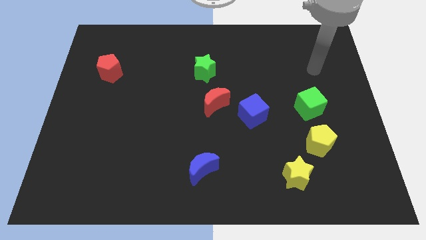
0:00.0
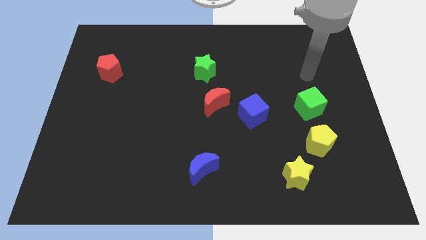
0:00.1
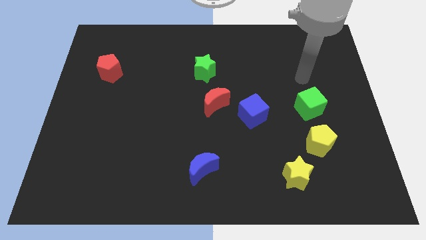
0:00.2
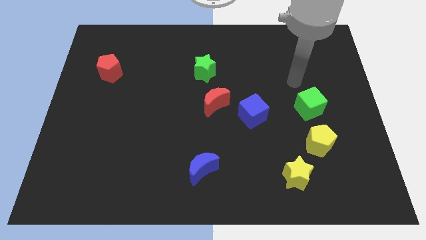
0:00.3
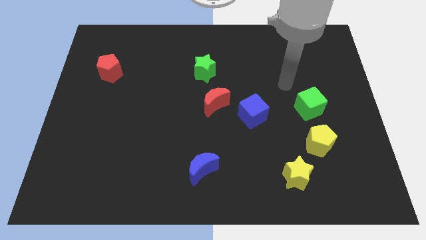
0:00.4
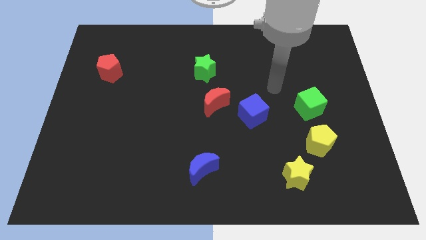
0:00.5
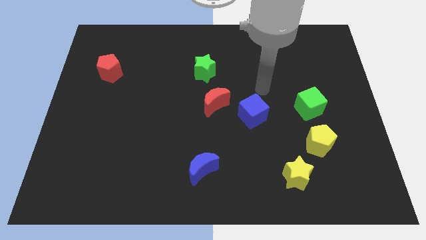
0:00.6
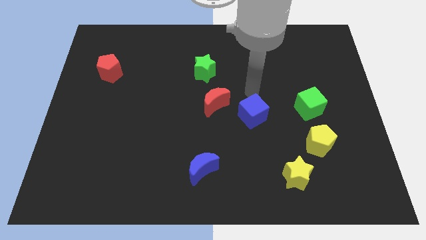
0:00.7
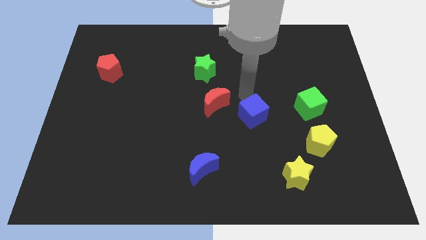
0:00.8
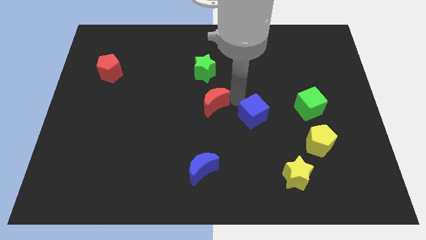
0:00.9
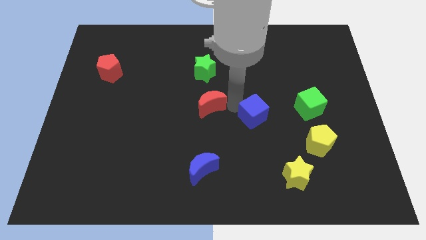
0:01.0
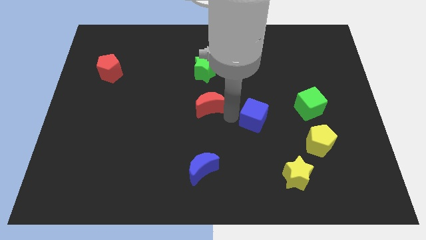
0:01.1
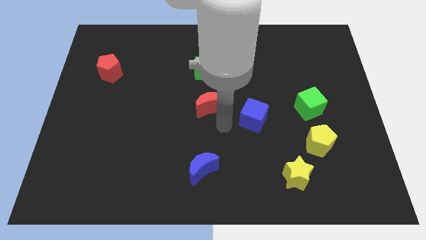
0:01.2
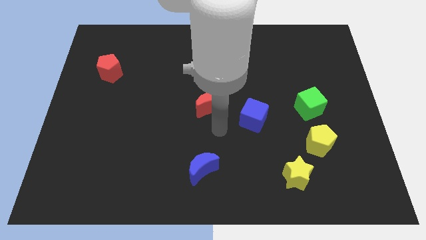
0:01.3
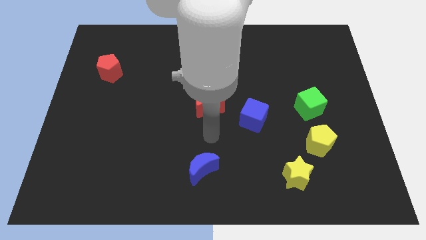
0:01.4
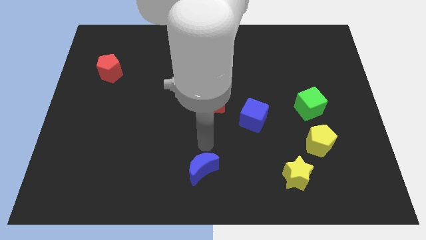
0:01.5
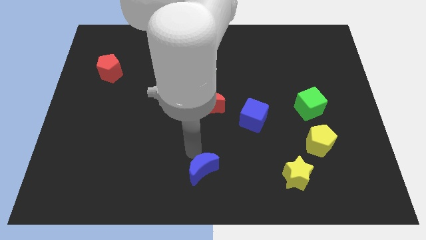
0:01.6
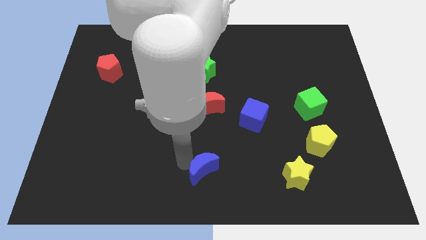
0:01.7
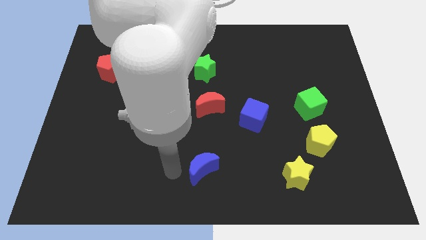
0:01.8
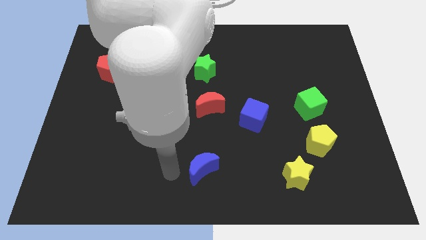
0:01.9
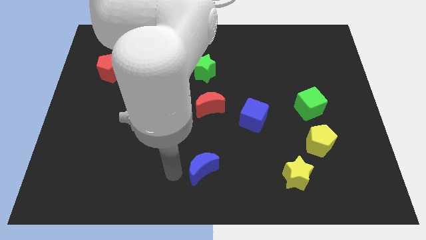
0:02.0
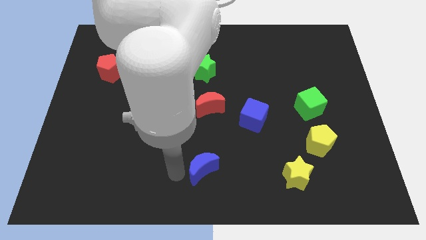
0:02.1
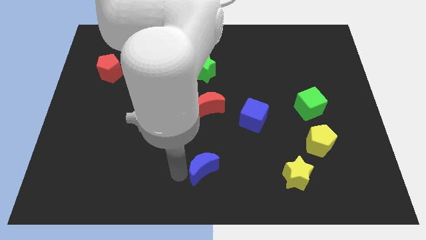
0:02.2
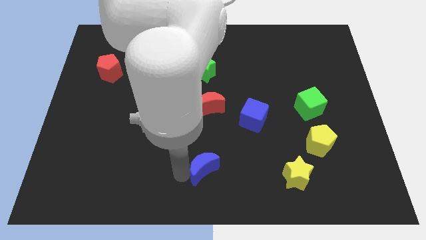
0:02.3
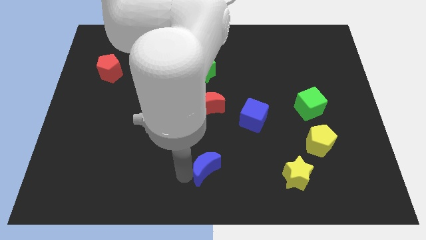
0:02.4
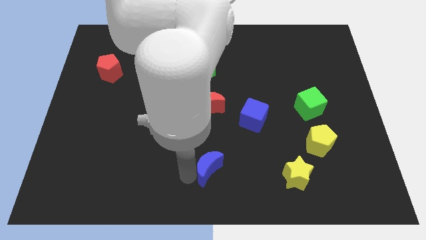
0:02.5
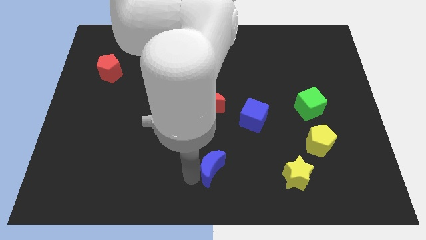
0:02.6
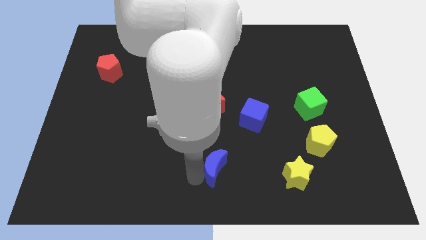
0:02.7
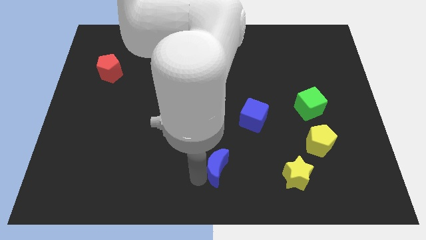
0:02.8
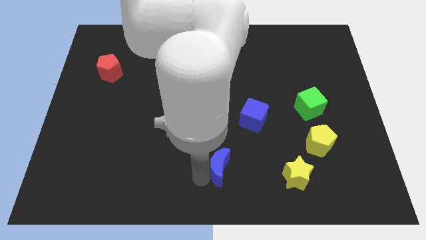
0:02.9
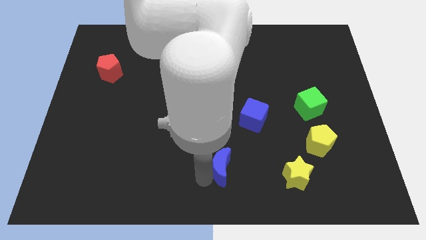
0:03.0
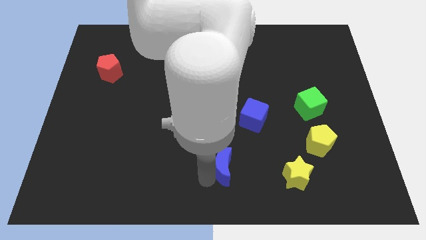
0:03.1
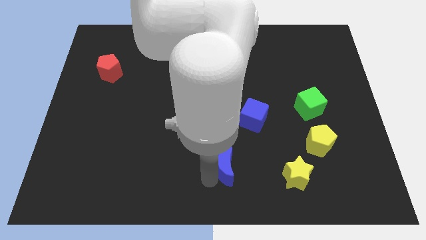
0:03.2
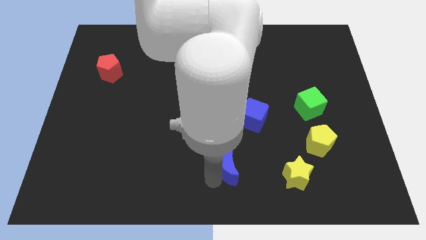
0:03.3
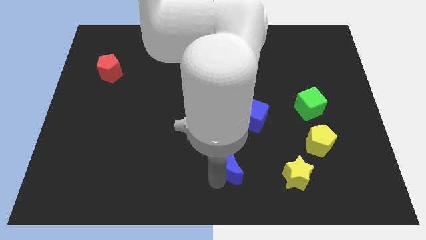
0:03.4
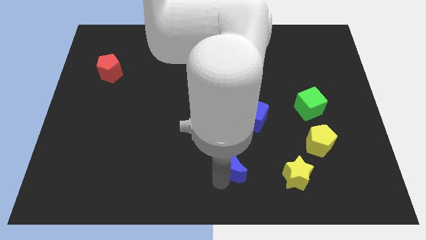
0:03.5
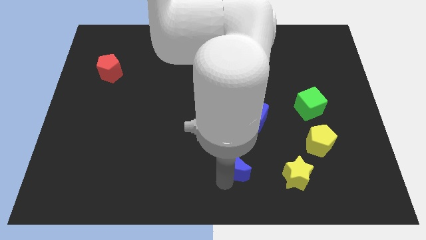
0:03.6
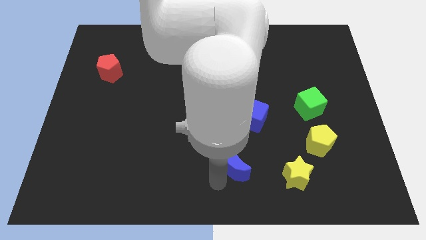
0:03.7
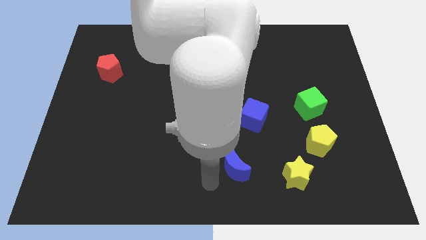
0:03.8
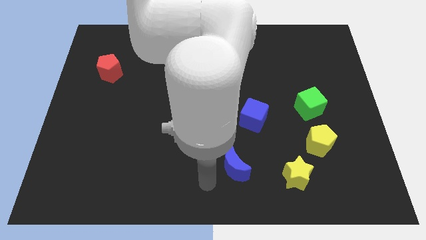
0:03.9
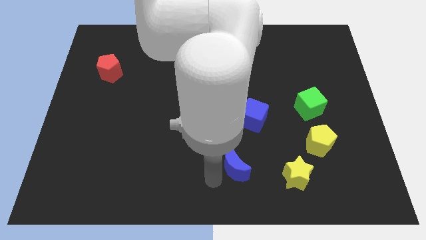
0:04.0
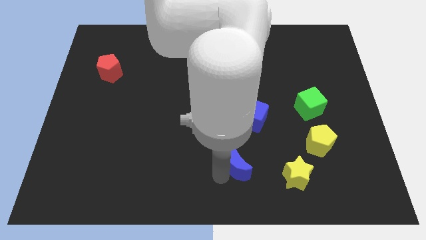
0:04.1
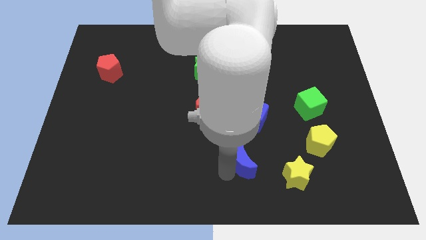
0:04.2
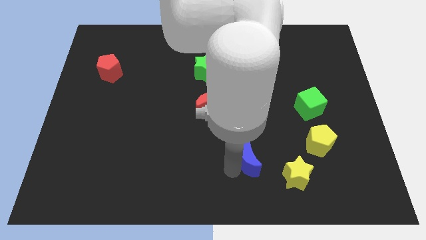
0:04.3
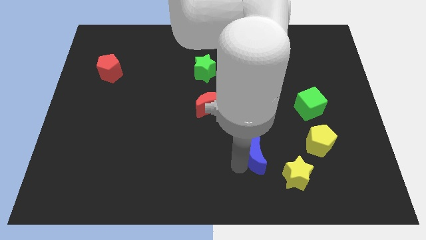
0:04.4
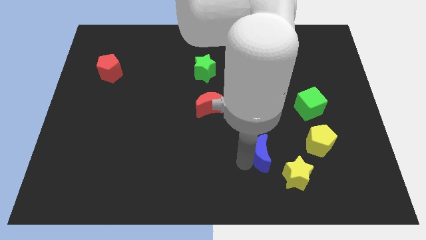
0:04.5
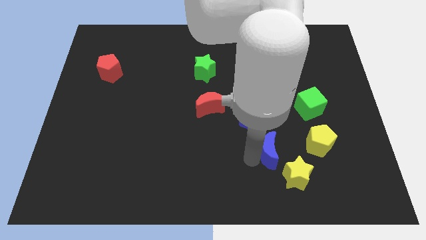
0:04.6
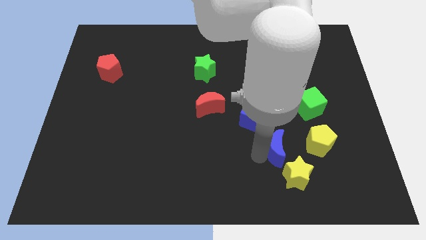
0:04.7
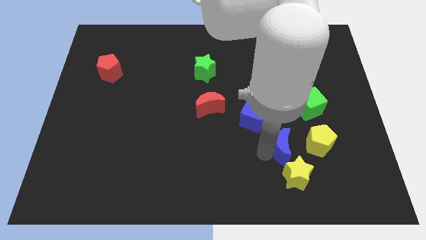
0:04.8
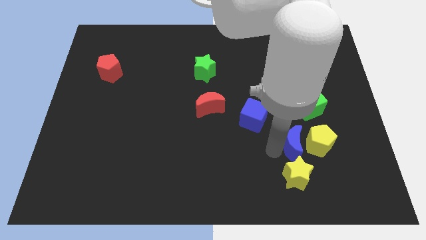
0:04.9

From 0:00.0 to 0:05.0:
push the blue moon towards the yellow pentagon

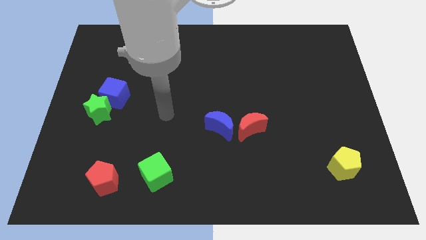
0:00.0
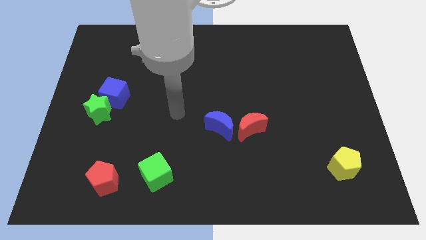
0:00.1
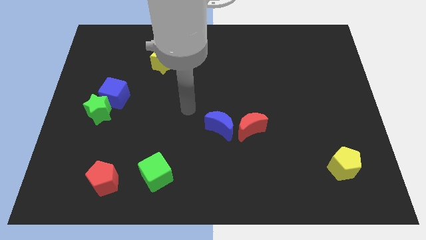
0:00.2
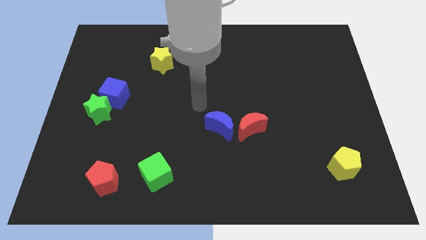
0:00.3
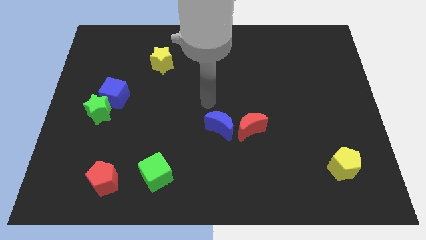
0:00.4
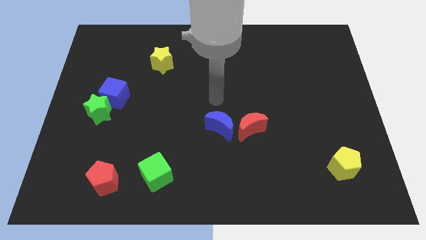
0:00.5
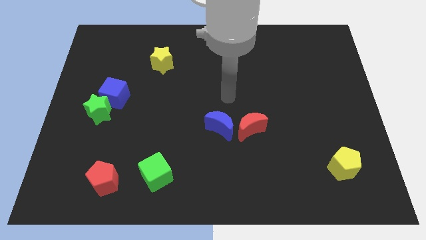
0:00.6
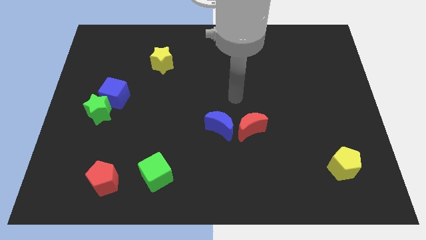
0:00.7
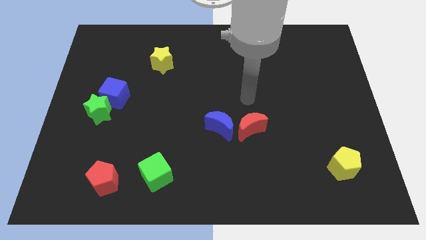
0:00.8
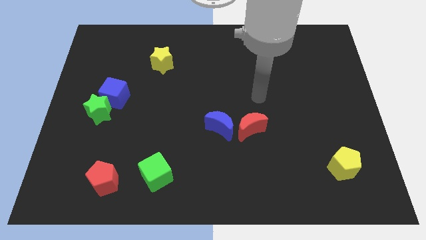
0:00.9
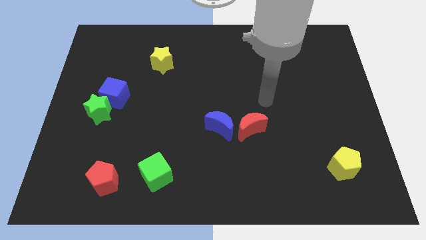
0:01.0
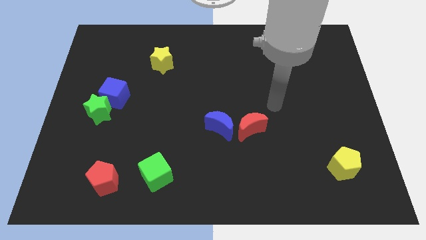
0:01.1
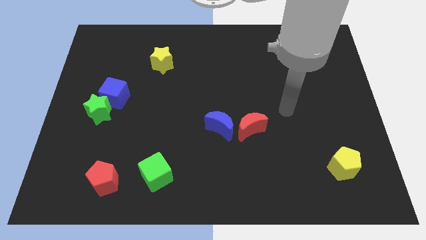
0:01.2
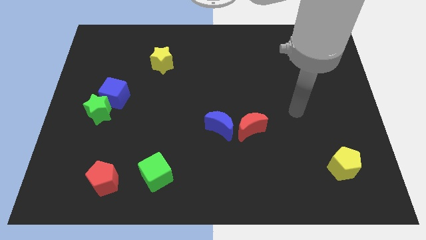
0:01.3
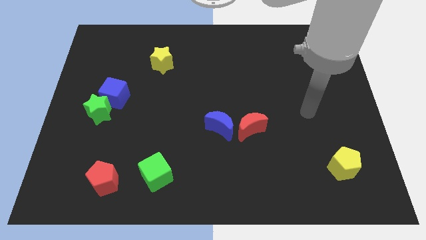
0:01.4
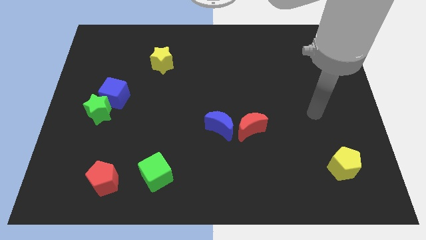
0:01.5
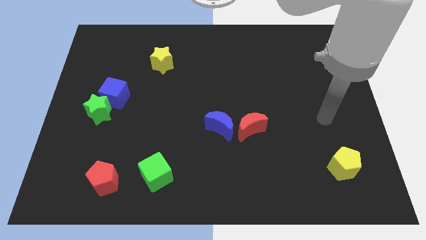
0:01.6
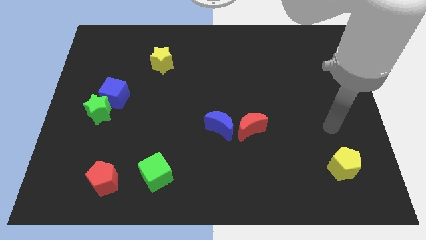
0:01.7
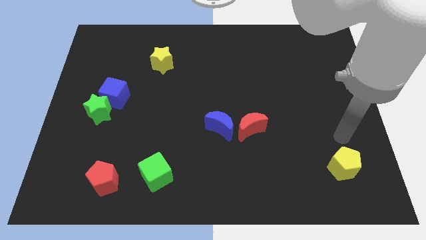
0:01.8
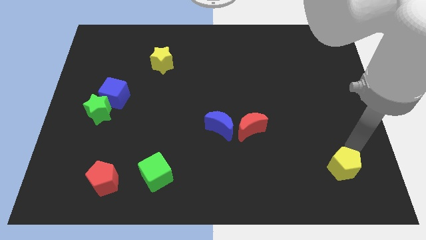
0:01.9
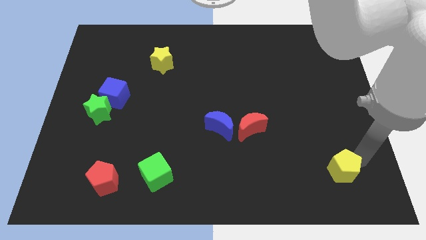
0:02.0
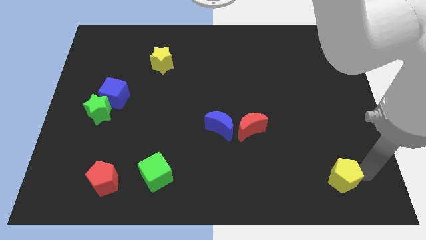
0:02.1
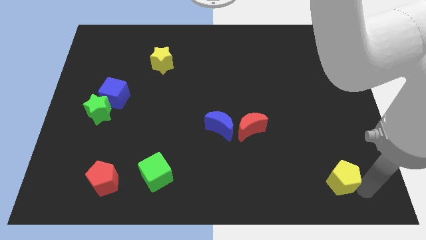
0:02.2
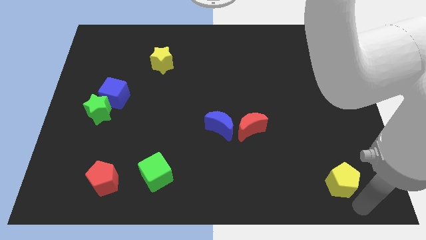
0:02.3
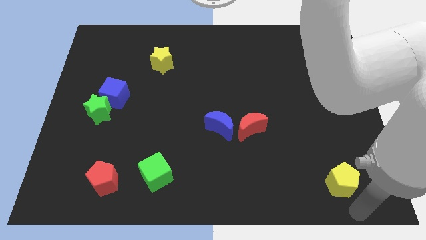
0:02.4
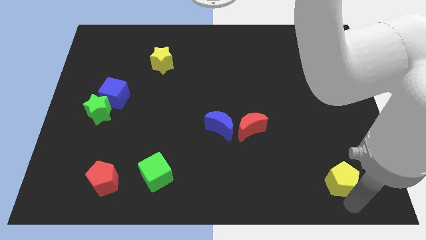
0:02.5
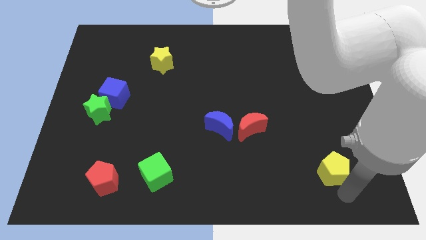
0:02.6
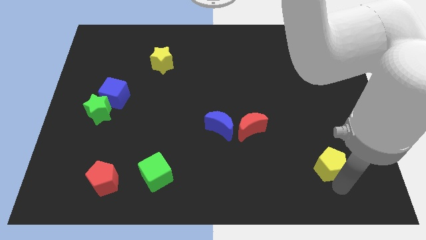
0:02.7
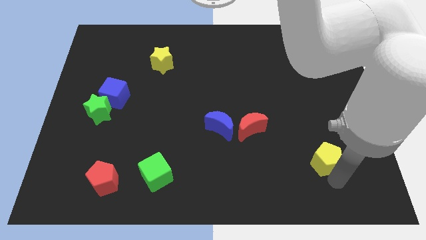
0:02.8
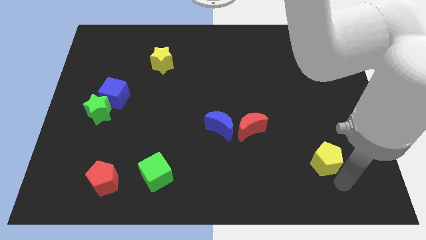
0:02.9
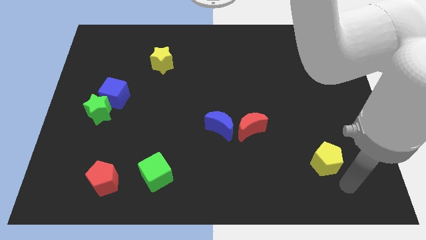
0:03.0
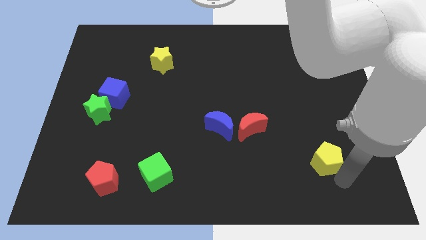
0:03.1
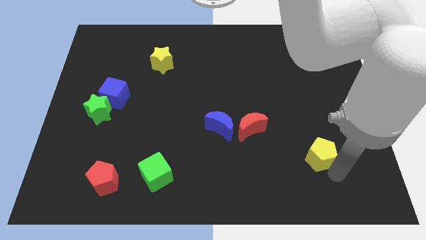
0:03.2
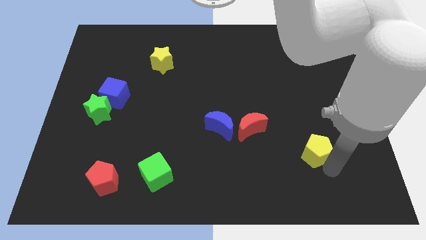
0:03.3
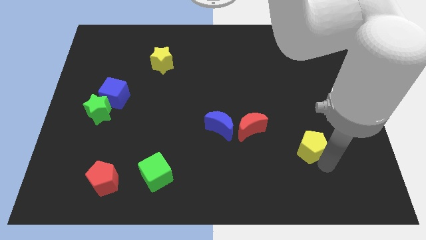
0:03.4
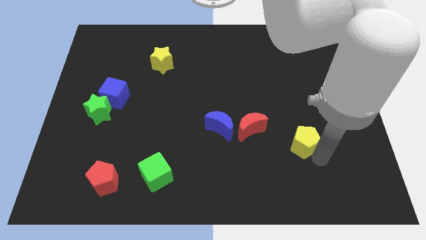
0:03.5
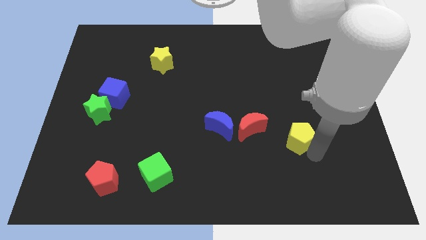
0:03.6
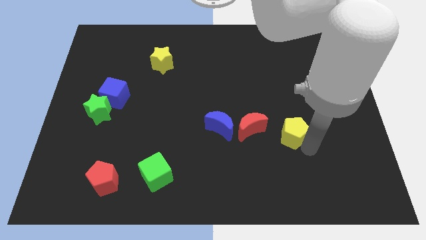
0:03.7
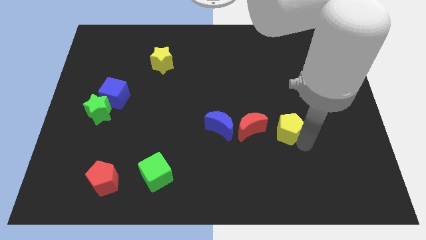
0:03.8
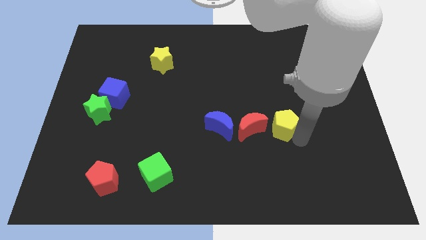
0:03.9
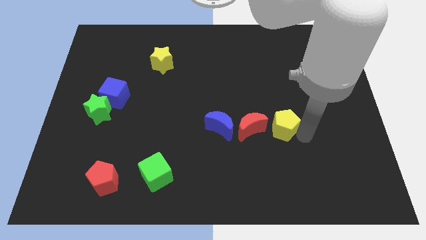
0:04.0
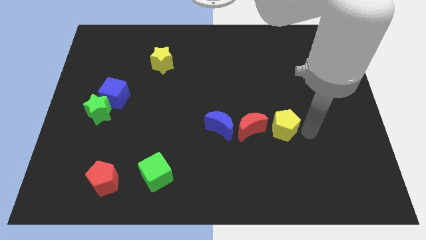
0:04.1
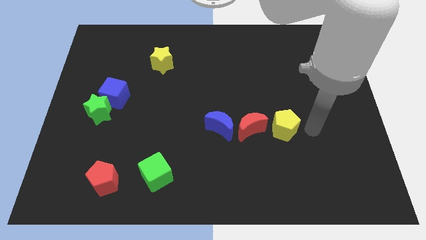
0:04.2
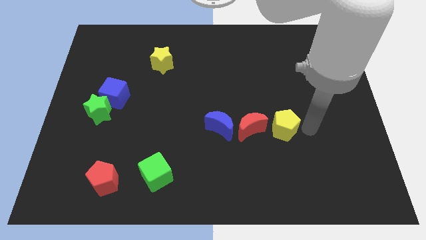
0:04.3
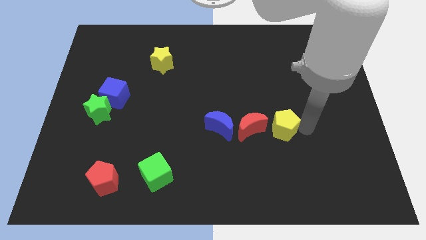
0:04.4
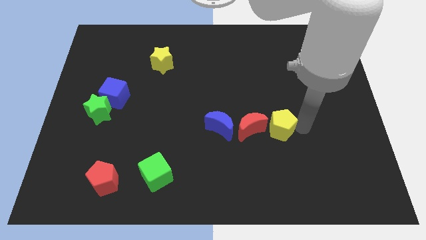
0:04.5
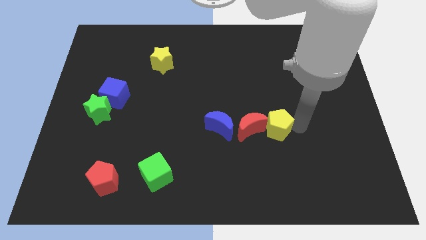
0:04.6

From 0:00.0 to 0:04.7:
put the yellow pentagon close to the red moon
